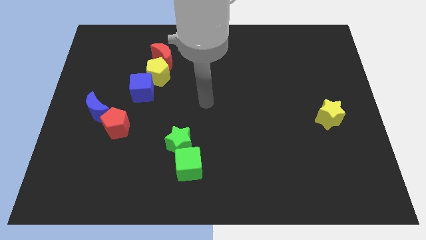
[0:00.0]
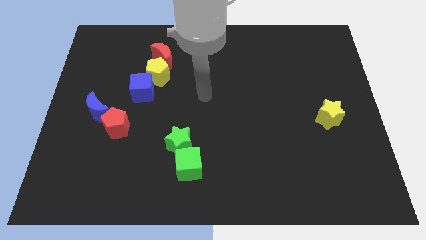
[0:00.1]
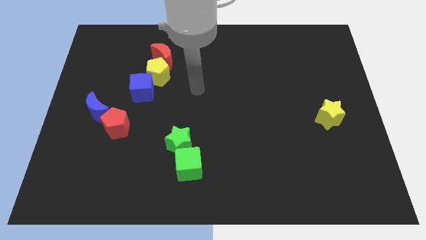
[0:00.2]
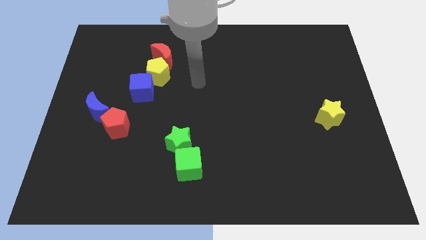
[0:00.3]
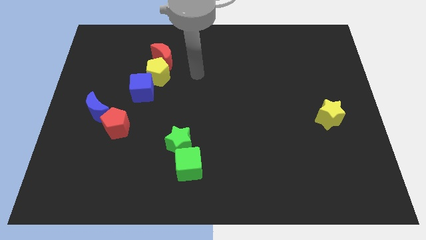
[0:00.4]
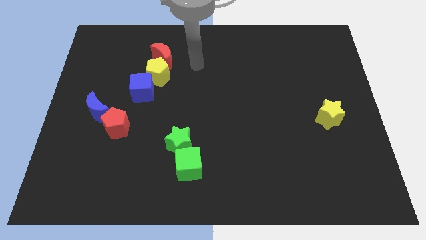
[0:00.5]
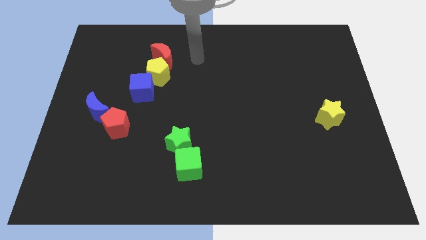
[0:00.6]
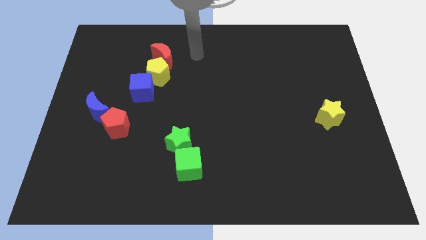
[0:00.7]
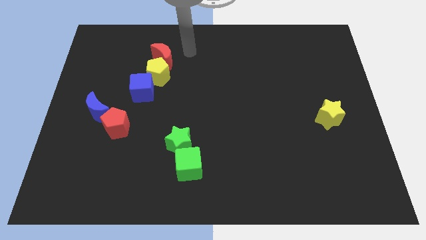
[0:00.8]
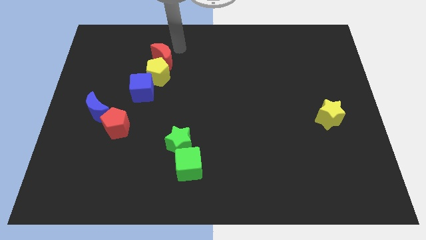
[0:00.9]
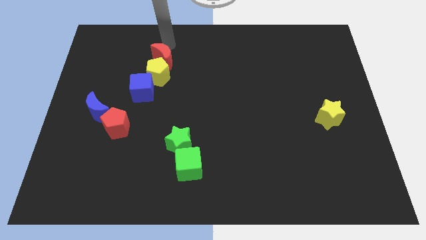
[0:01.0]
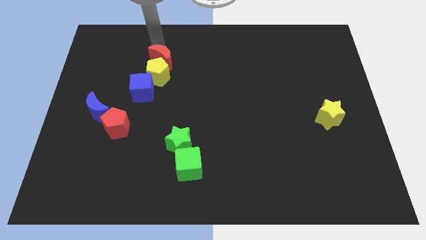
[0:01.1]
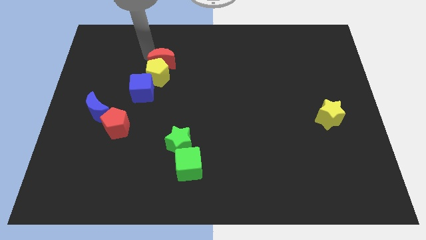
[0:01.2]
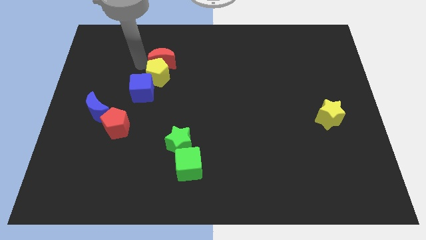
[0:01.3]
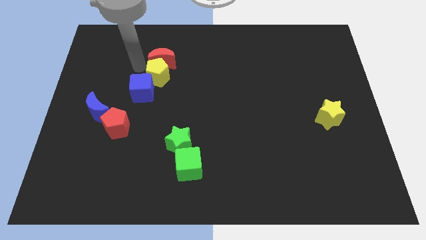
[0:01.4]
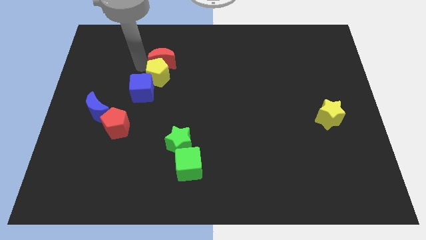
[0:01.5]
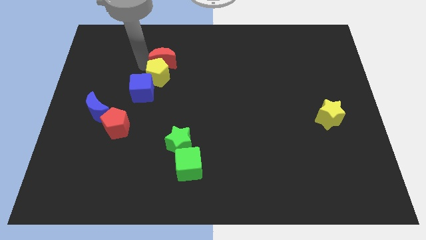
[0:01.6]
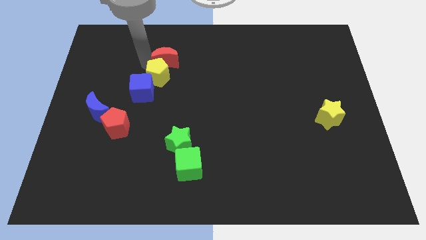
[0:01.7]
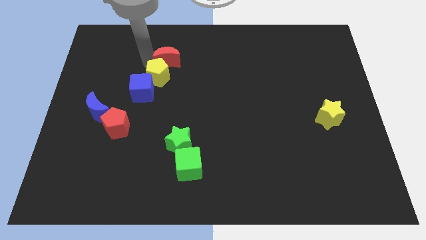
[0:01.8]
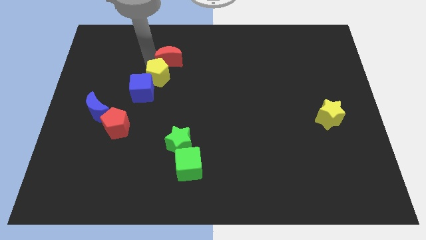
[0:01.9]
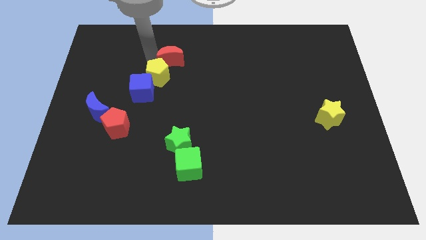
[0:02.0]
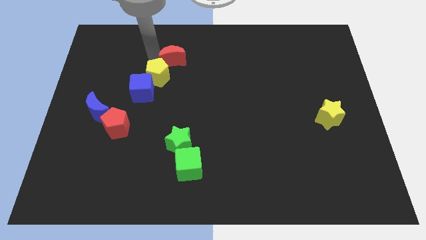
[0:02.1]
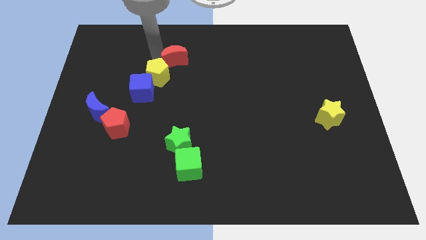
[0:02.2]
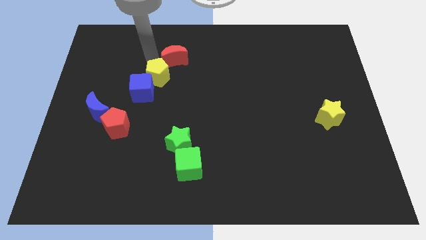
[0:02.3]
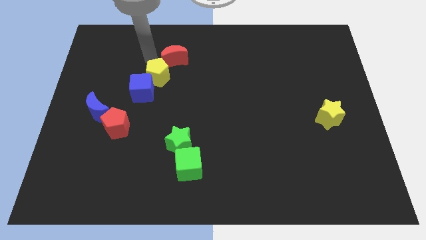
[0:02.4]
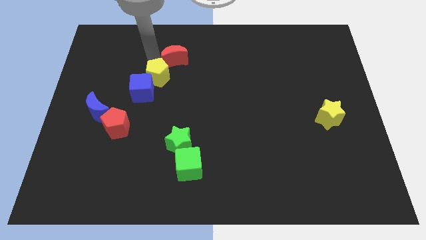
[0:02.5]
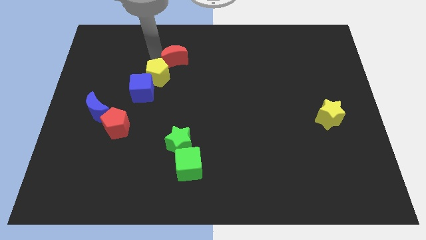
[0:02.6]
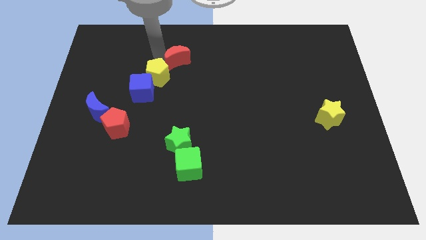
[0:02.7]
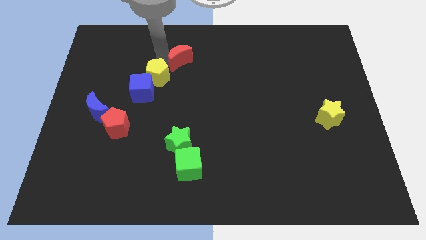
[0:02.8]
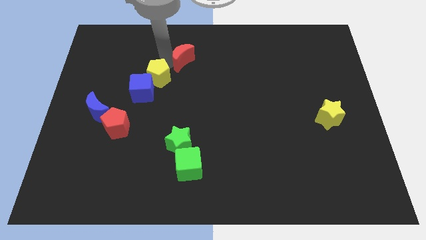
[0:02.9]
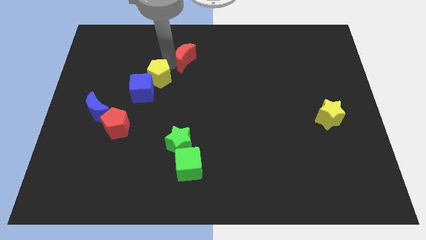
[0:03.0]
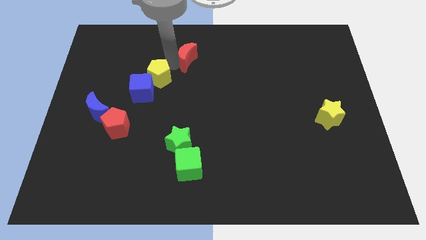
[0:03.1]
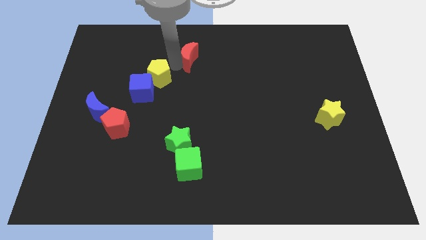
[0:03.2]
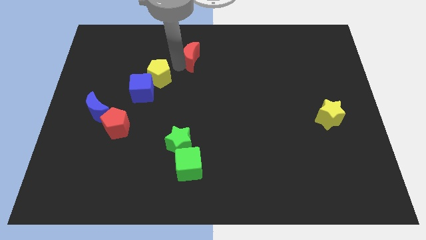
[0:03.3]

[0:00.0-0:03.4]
push the red moon right a little

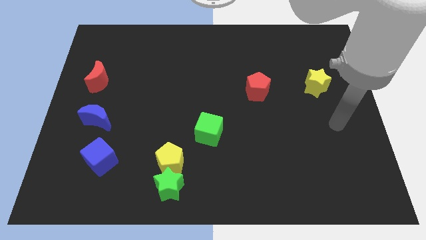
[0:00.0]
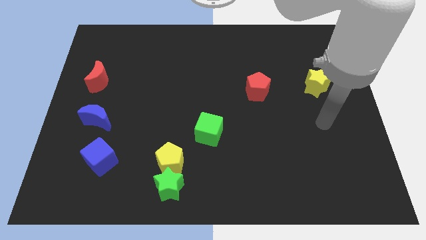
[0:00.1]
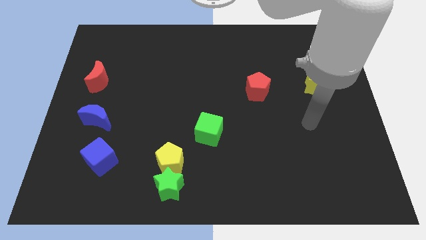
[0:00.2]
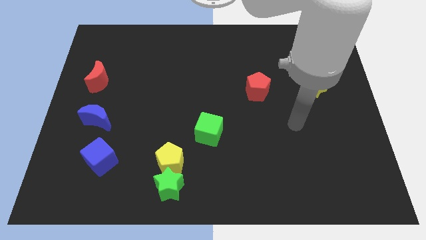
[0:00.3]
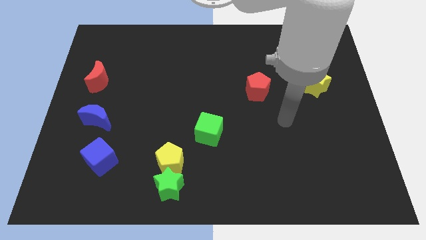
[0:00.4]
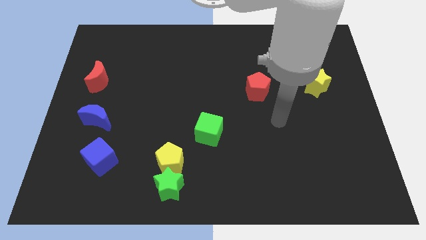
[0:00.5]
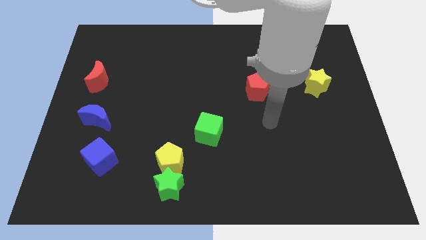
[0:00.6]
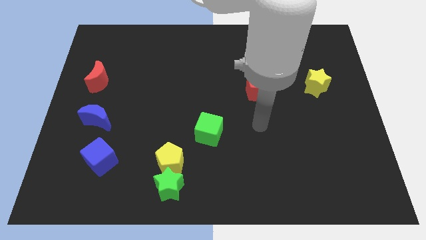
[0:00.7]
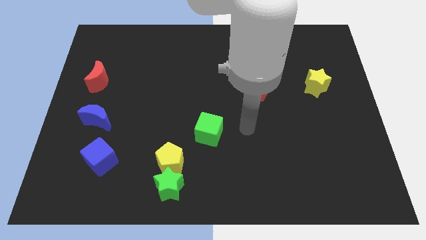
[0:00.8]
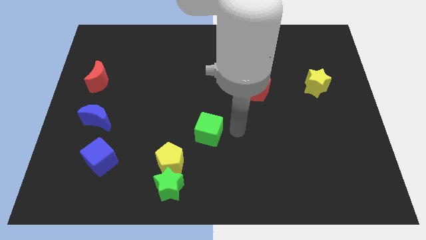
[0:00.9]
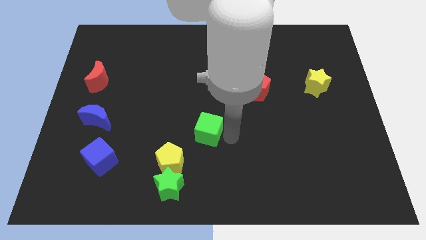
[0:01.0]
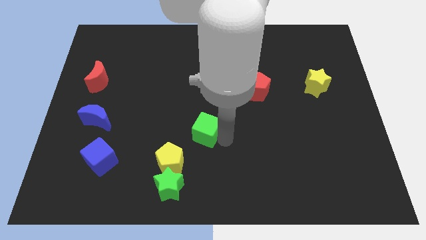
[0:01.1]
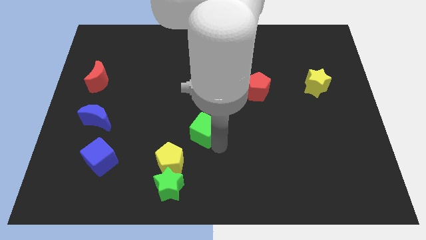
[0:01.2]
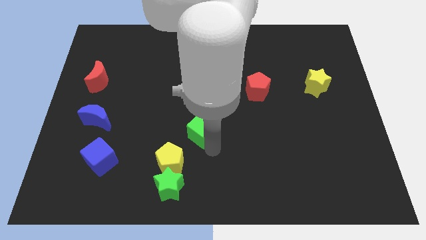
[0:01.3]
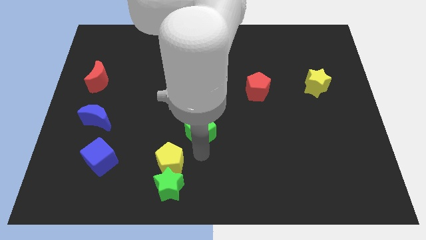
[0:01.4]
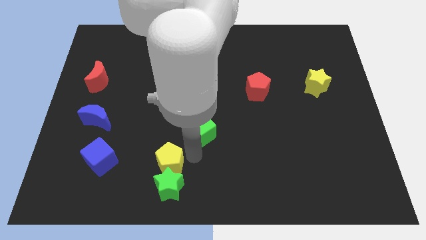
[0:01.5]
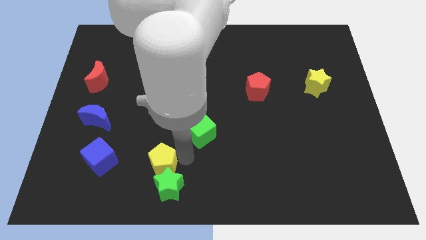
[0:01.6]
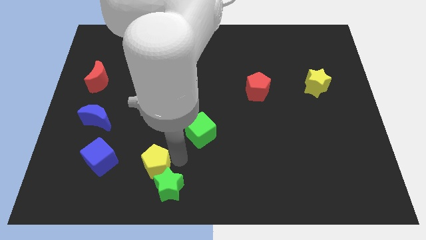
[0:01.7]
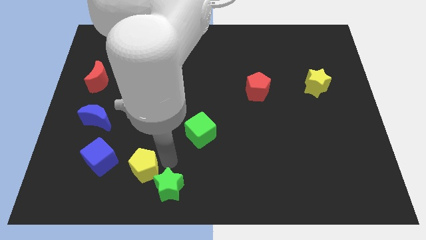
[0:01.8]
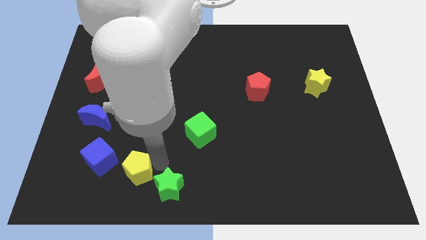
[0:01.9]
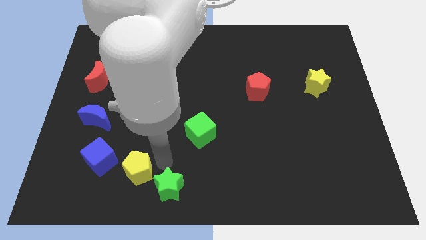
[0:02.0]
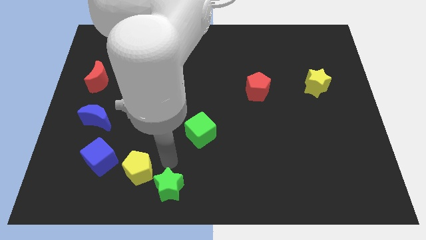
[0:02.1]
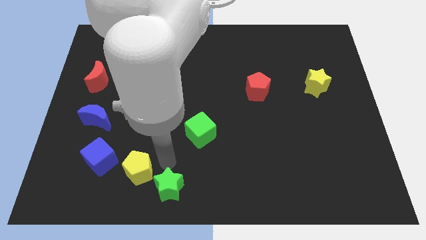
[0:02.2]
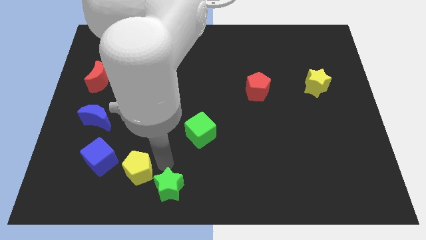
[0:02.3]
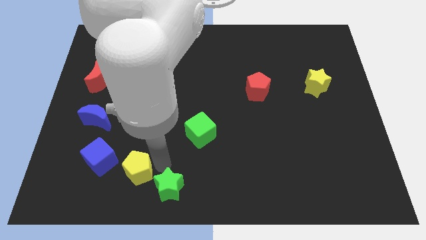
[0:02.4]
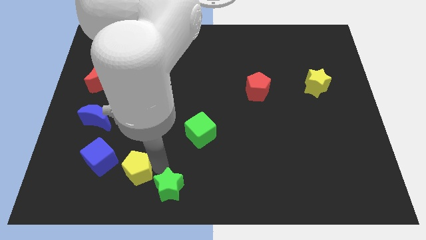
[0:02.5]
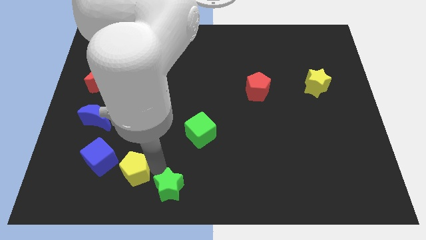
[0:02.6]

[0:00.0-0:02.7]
move the yellow pentagon somewhat to the left

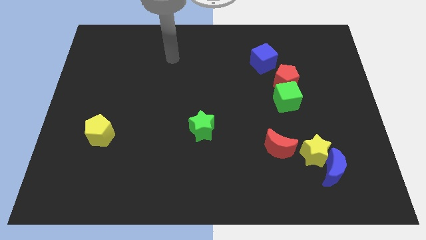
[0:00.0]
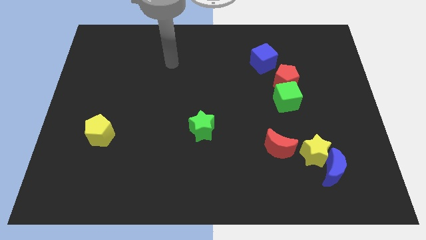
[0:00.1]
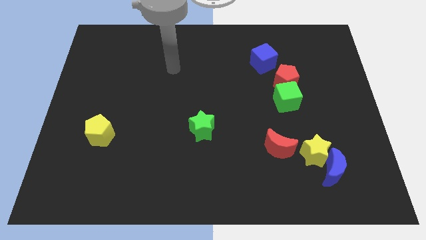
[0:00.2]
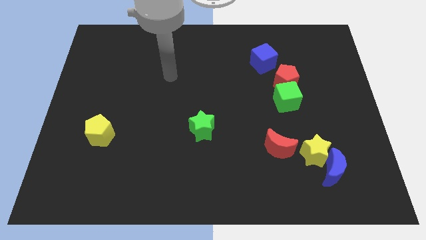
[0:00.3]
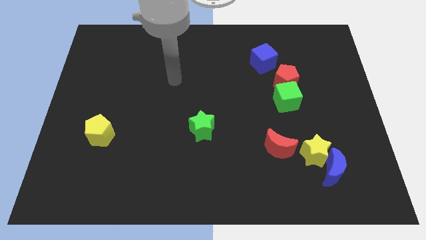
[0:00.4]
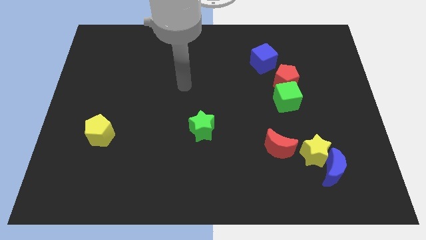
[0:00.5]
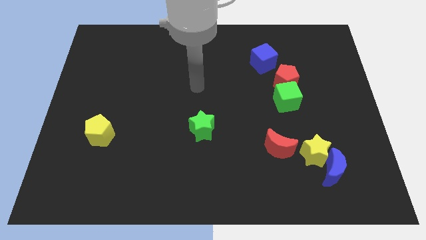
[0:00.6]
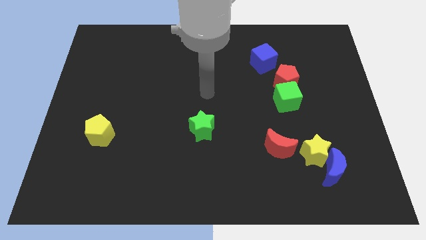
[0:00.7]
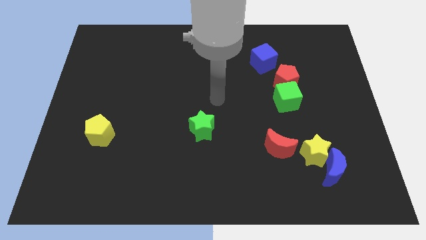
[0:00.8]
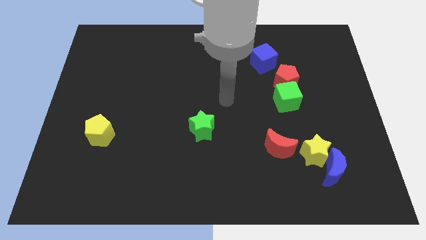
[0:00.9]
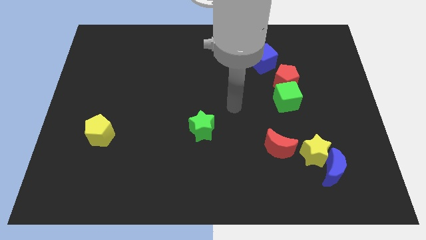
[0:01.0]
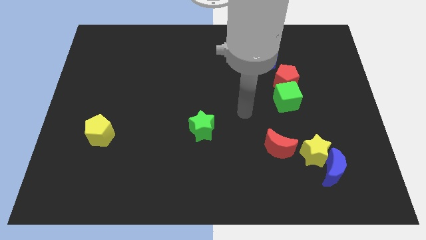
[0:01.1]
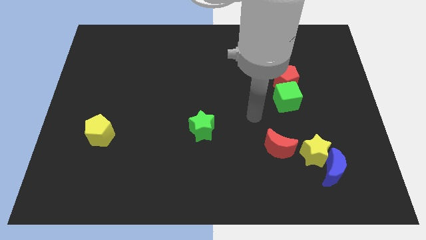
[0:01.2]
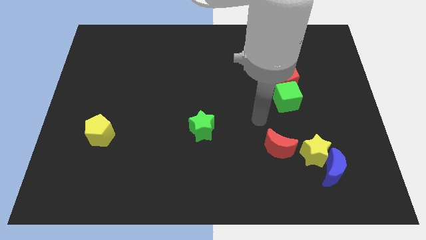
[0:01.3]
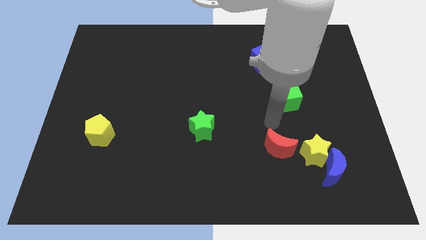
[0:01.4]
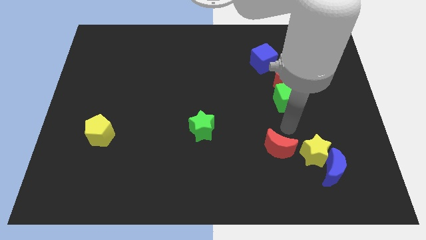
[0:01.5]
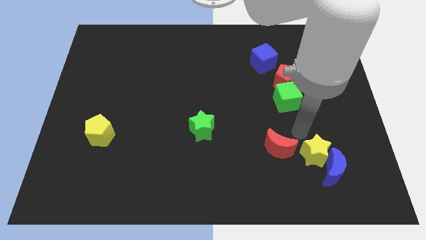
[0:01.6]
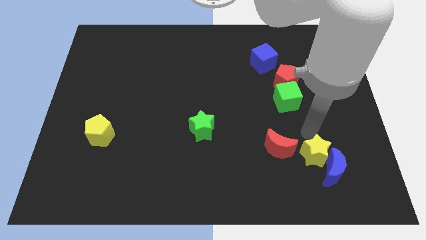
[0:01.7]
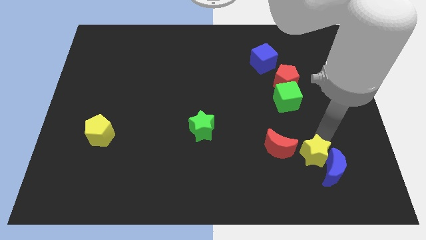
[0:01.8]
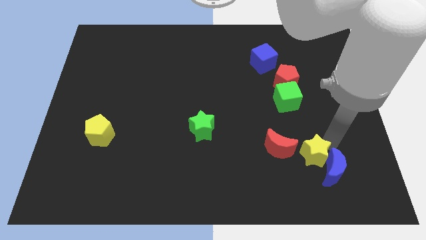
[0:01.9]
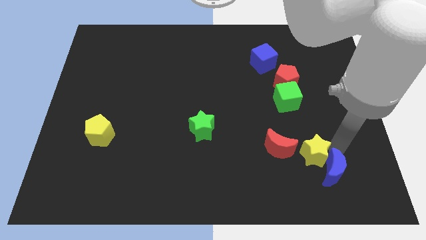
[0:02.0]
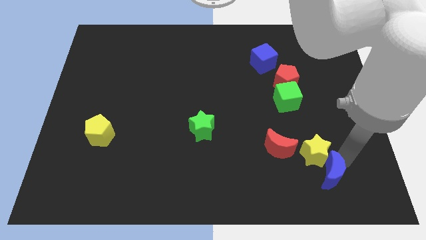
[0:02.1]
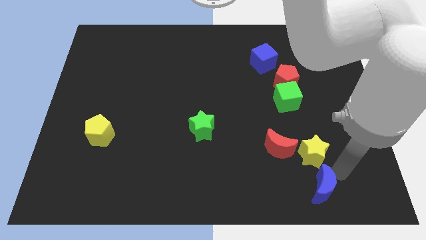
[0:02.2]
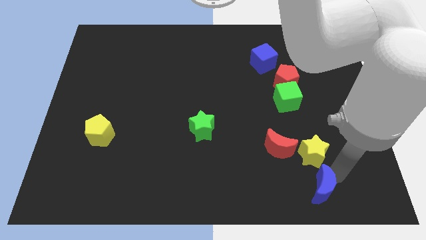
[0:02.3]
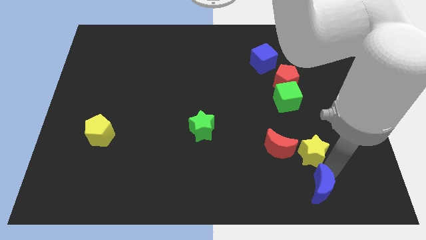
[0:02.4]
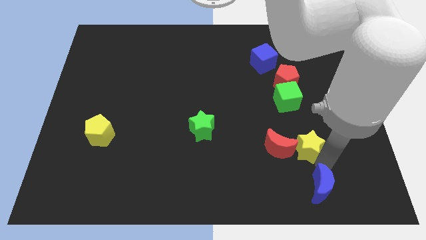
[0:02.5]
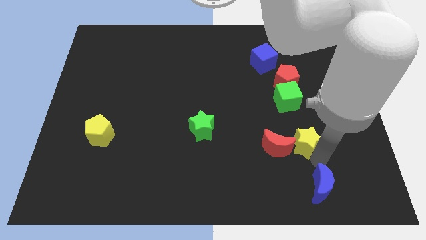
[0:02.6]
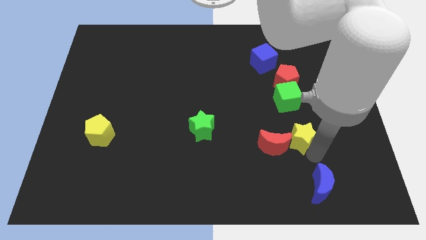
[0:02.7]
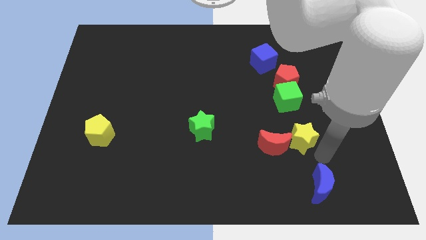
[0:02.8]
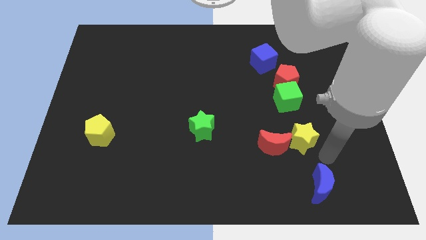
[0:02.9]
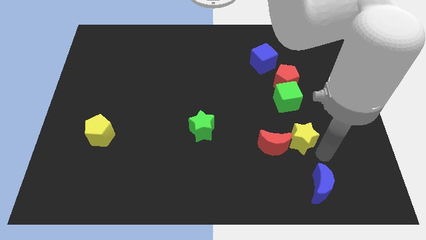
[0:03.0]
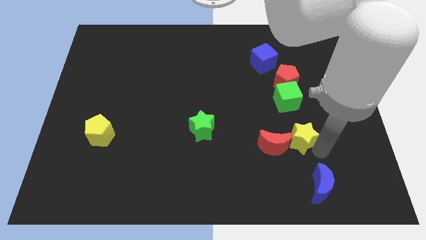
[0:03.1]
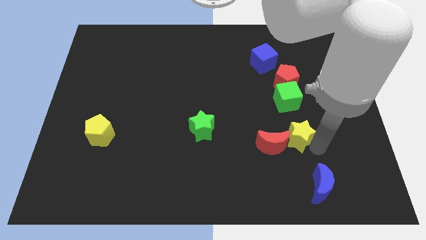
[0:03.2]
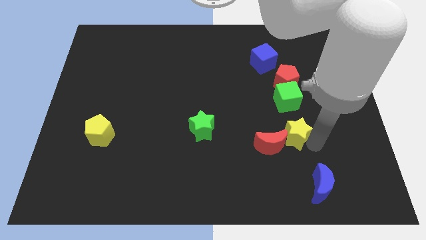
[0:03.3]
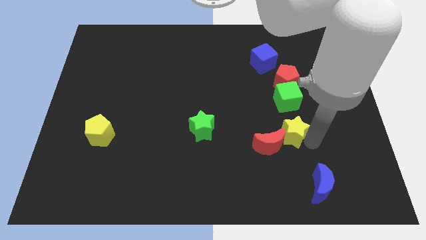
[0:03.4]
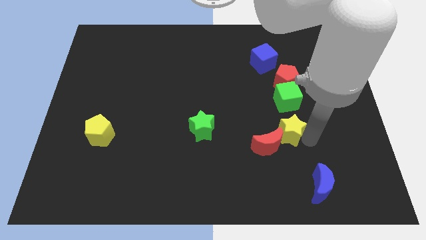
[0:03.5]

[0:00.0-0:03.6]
move the yellow star somewhat up and then to the left
